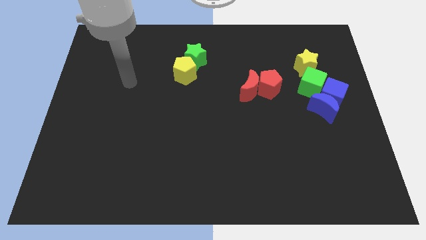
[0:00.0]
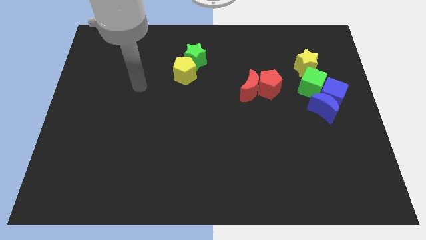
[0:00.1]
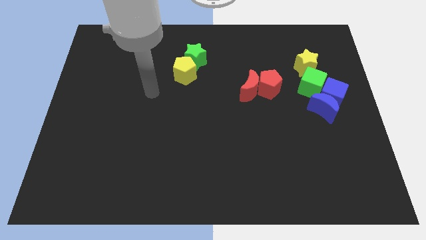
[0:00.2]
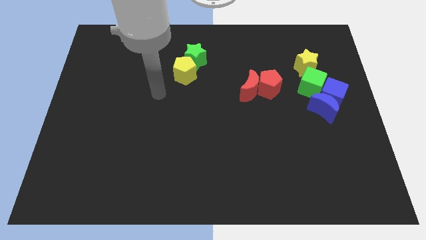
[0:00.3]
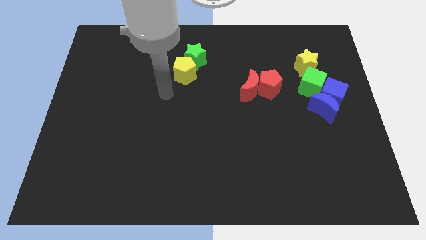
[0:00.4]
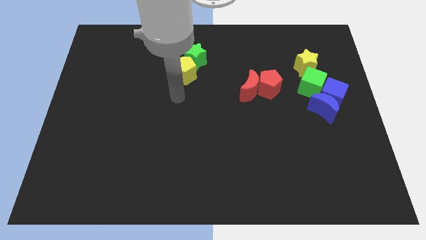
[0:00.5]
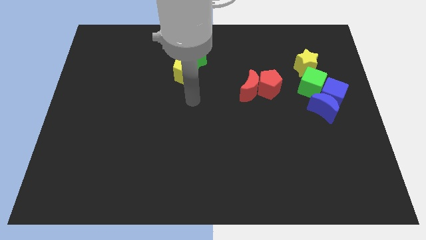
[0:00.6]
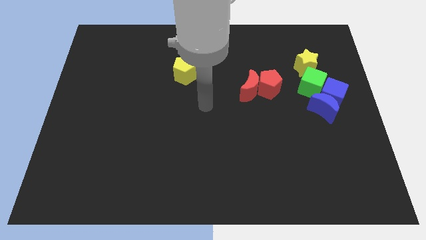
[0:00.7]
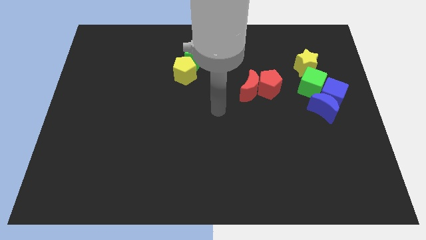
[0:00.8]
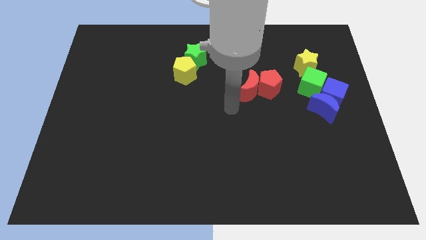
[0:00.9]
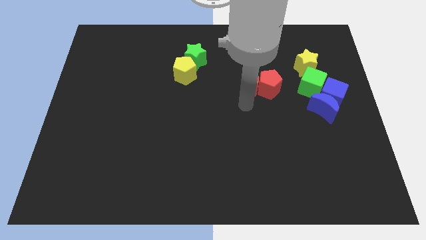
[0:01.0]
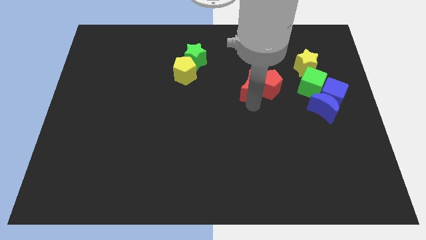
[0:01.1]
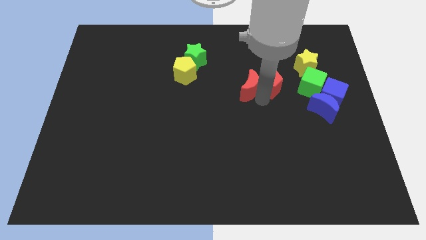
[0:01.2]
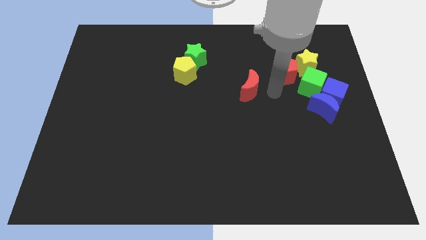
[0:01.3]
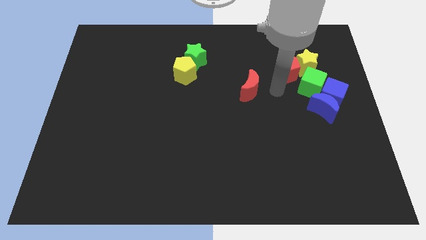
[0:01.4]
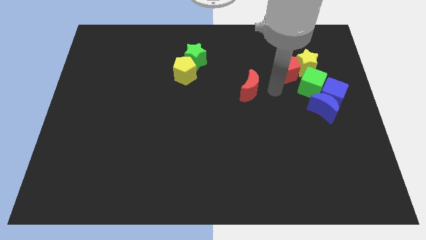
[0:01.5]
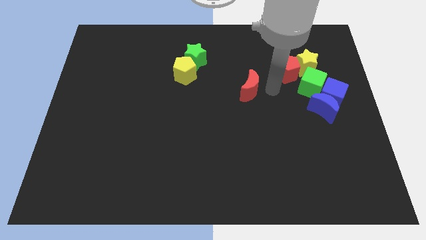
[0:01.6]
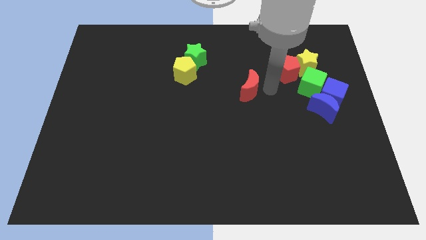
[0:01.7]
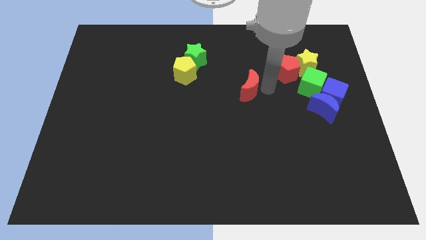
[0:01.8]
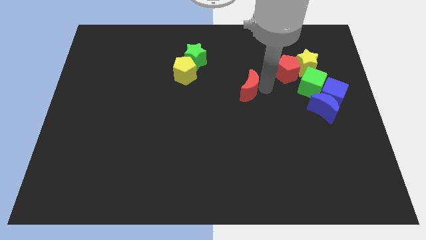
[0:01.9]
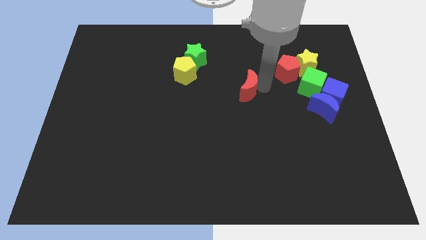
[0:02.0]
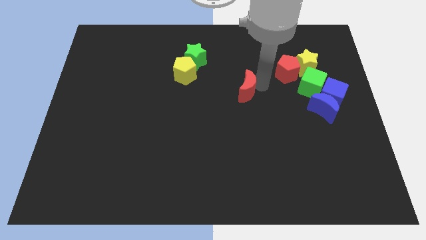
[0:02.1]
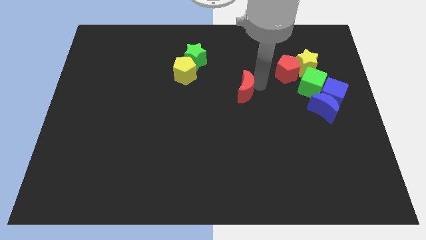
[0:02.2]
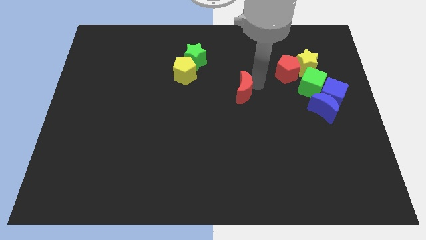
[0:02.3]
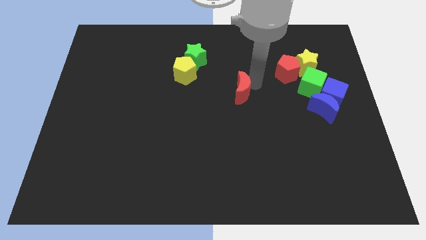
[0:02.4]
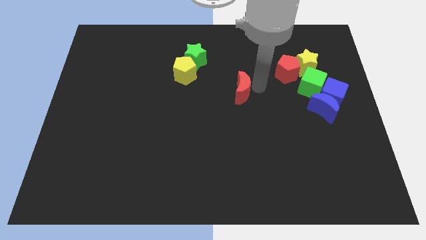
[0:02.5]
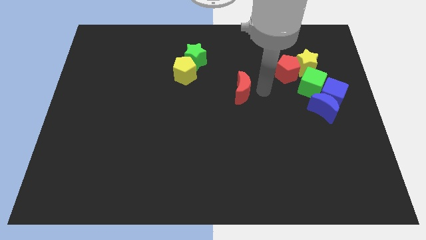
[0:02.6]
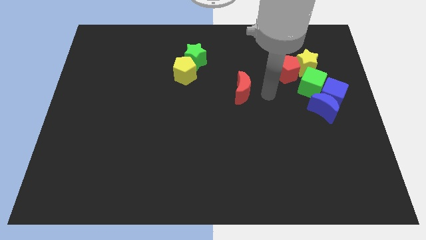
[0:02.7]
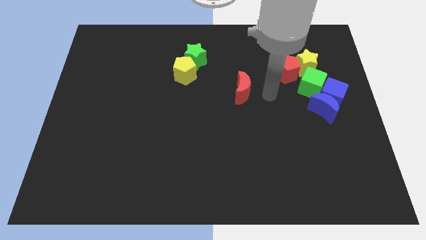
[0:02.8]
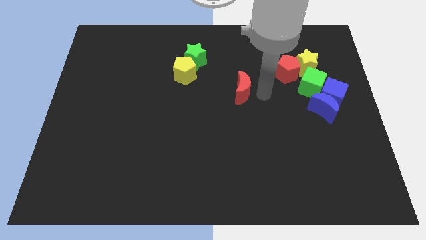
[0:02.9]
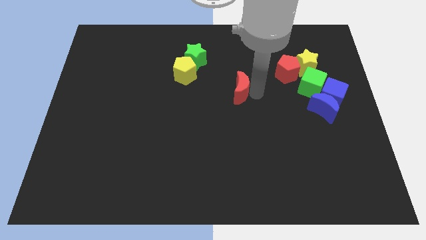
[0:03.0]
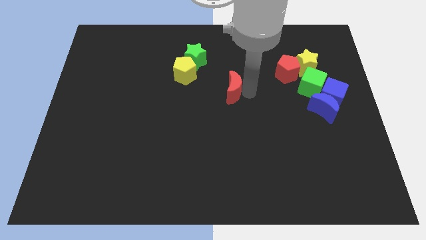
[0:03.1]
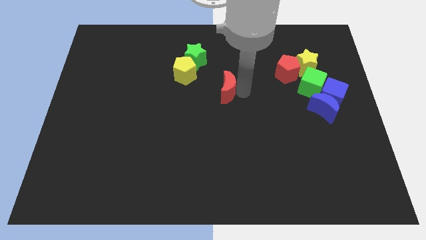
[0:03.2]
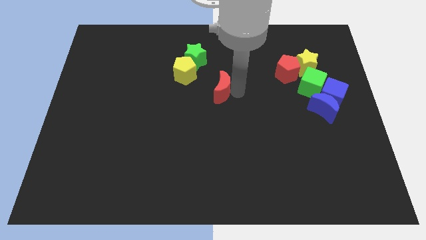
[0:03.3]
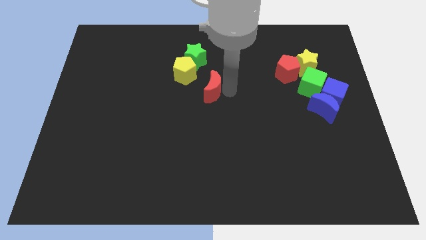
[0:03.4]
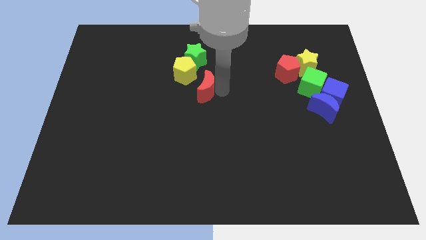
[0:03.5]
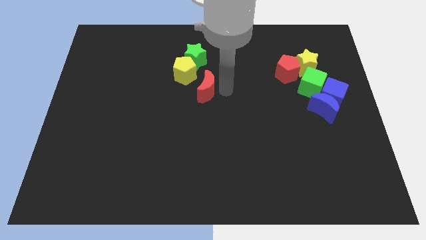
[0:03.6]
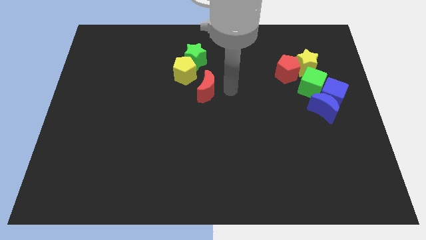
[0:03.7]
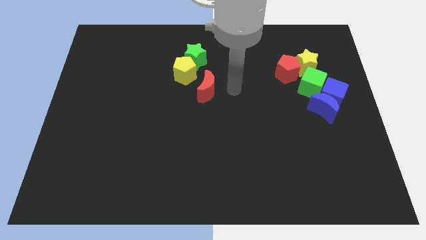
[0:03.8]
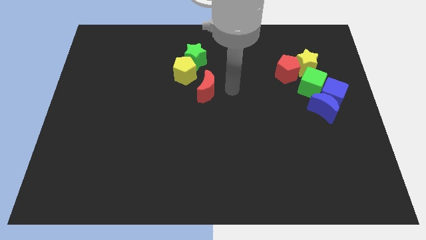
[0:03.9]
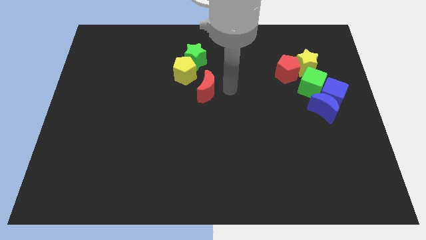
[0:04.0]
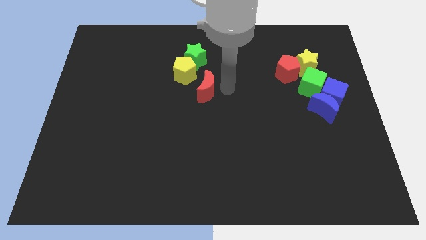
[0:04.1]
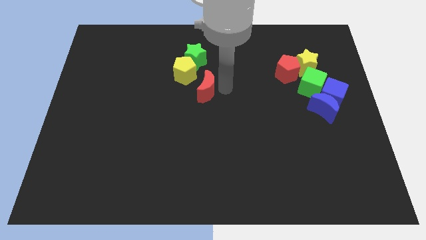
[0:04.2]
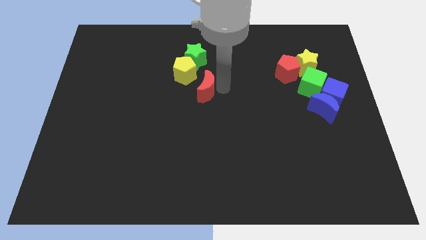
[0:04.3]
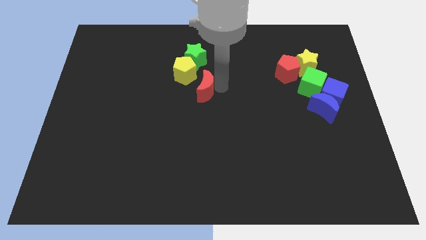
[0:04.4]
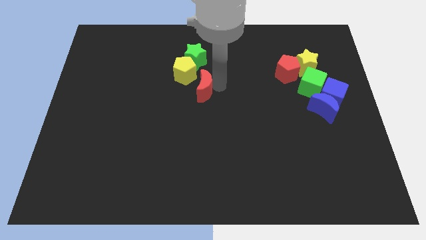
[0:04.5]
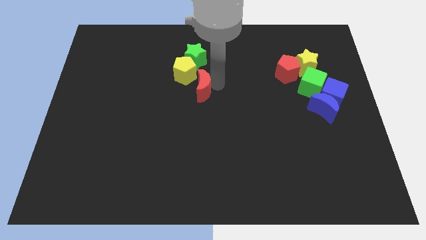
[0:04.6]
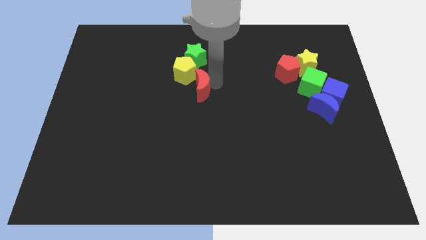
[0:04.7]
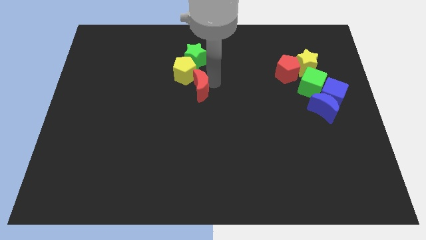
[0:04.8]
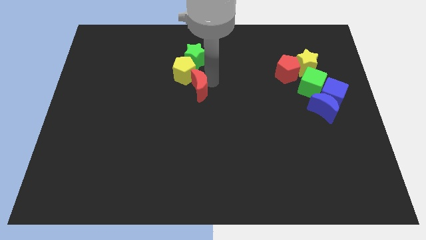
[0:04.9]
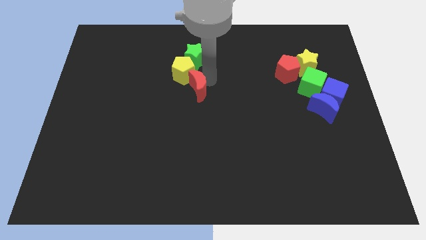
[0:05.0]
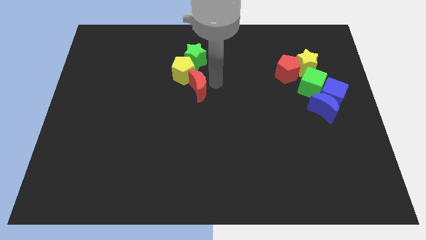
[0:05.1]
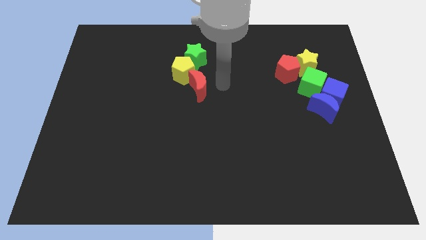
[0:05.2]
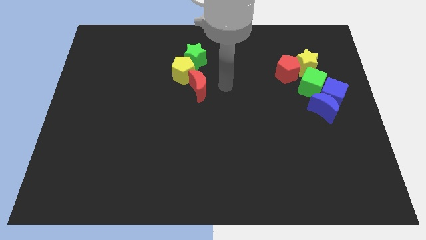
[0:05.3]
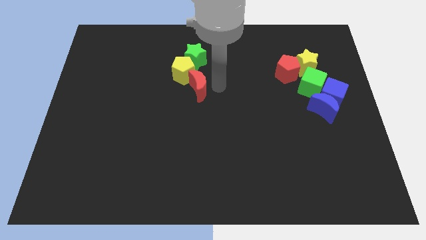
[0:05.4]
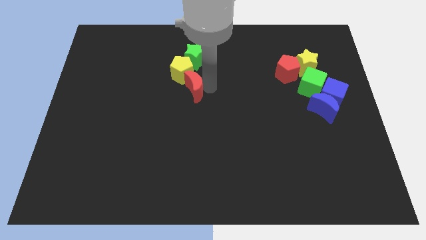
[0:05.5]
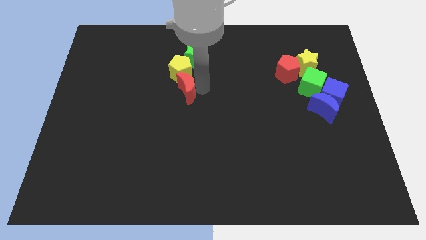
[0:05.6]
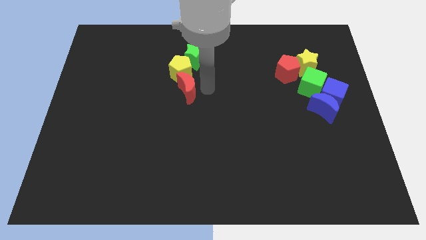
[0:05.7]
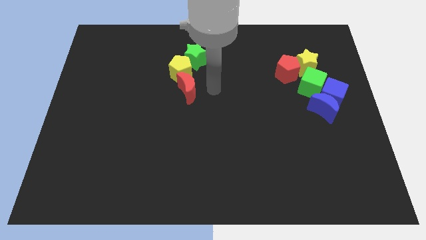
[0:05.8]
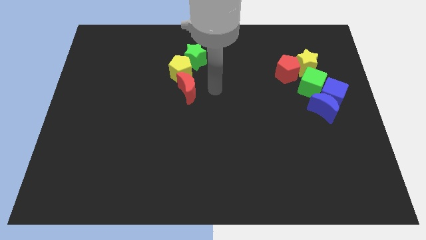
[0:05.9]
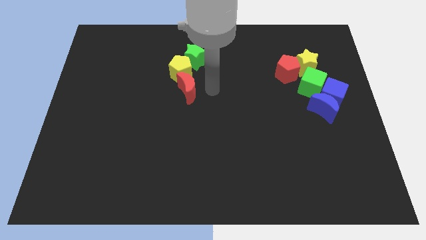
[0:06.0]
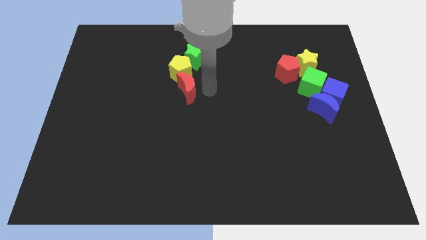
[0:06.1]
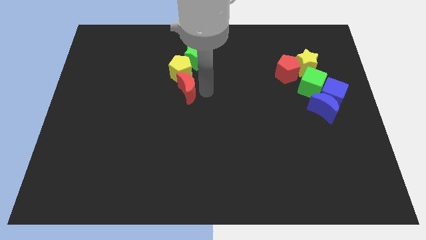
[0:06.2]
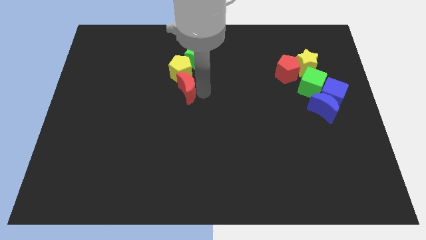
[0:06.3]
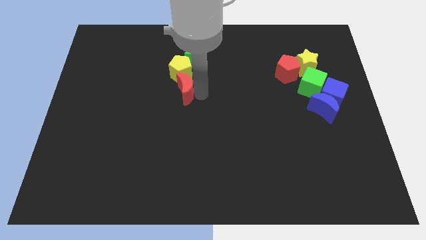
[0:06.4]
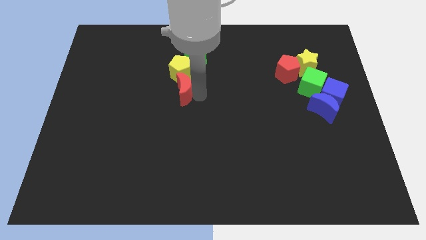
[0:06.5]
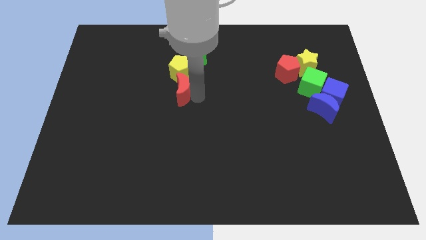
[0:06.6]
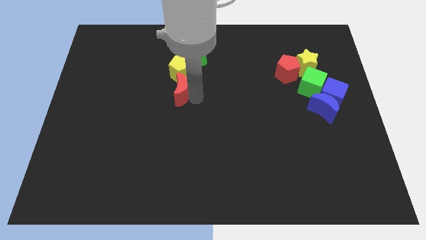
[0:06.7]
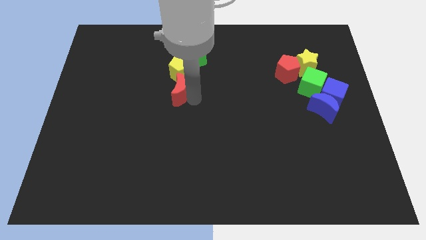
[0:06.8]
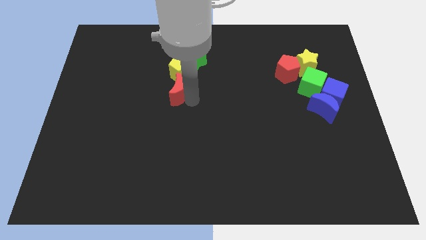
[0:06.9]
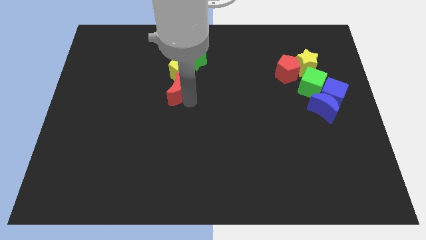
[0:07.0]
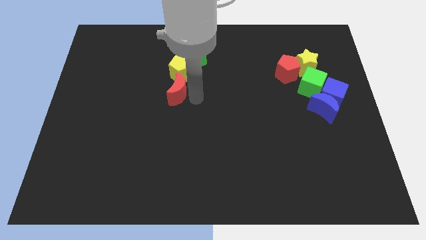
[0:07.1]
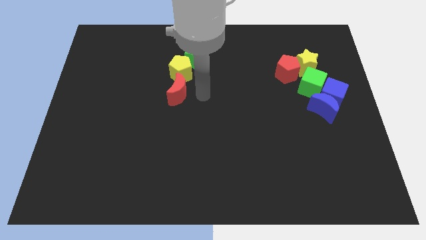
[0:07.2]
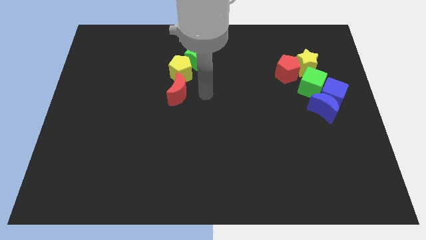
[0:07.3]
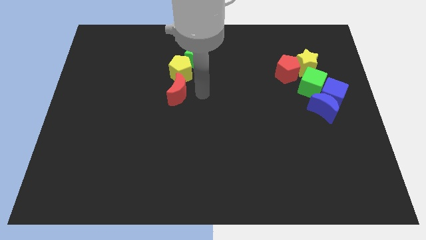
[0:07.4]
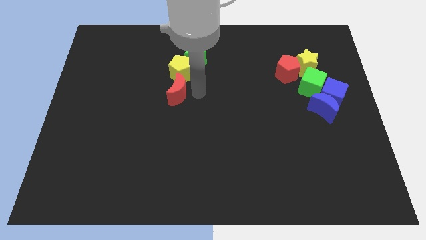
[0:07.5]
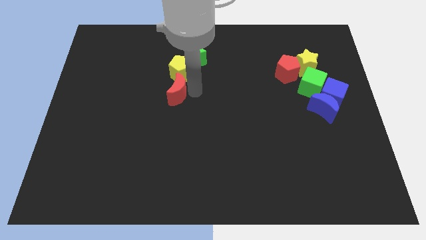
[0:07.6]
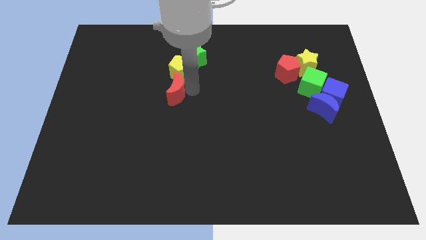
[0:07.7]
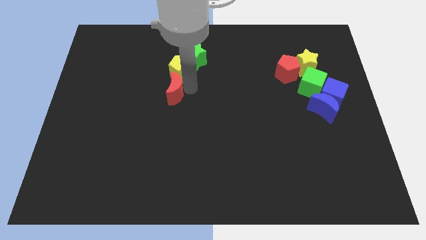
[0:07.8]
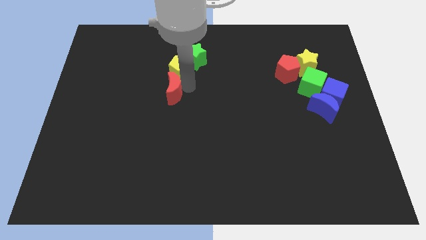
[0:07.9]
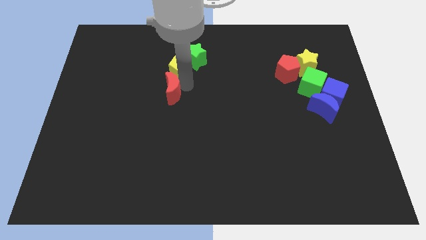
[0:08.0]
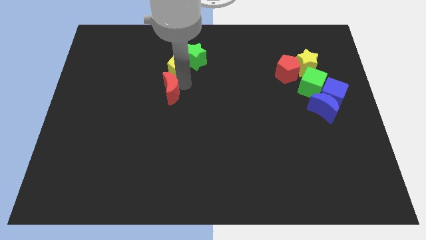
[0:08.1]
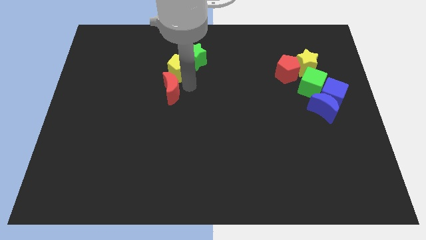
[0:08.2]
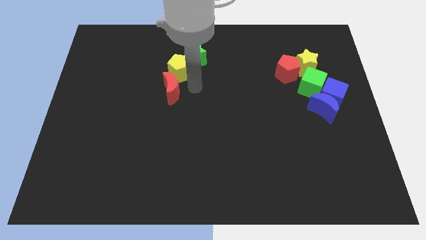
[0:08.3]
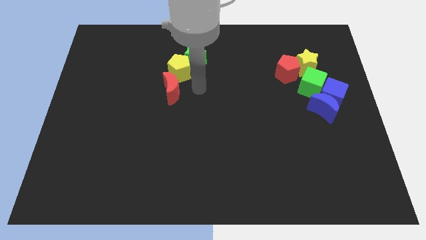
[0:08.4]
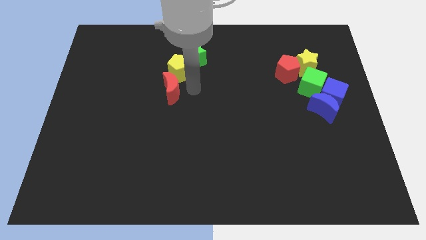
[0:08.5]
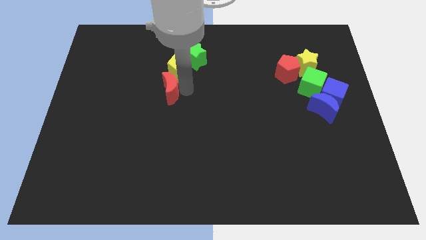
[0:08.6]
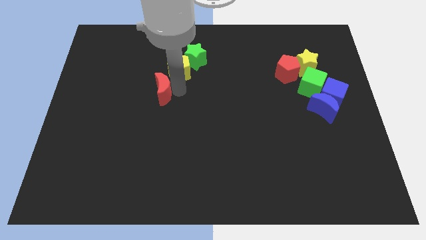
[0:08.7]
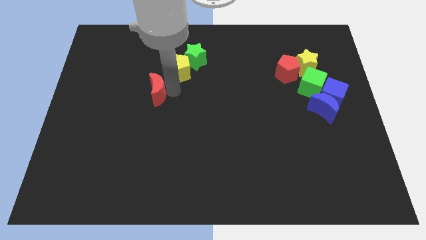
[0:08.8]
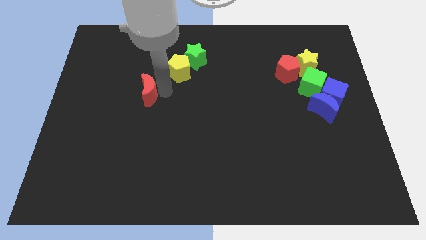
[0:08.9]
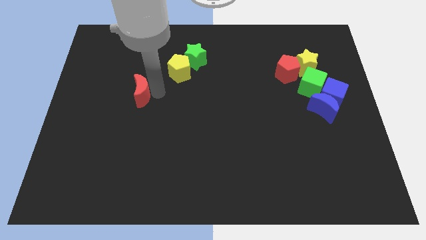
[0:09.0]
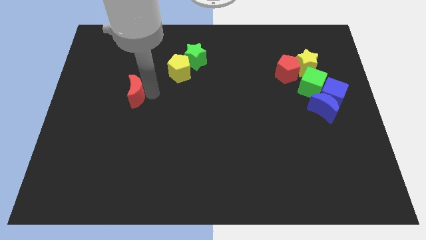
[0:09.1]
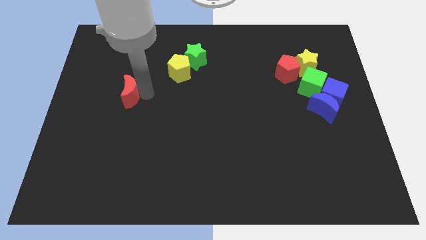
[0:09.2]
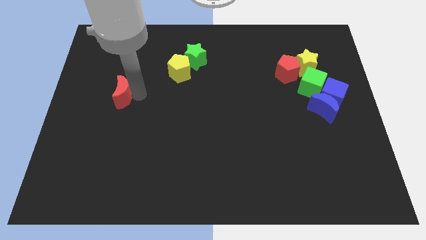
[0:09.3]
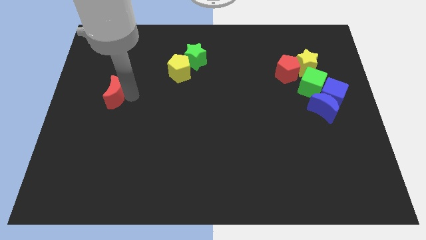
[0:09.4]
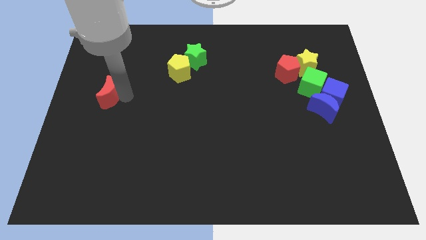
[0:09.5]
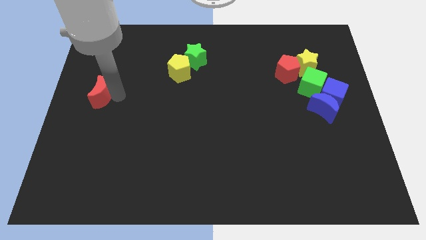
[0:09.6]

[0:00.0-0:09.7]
move the red moon to the left side
